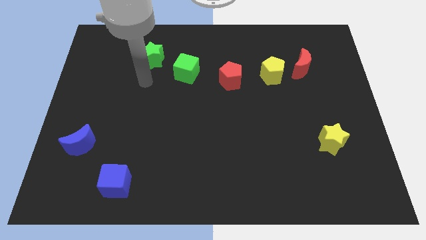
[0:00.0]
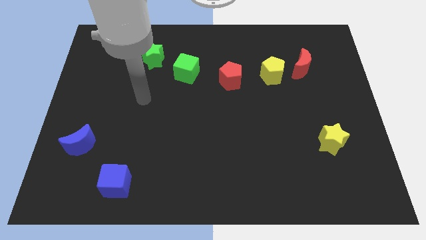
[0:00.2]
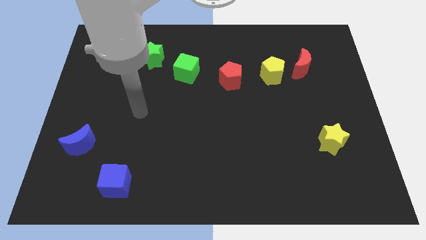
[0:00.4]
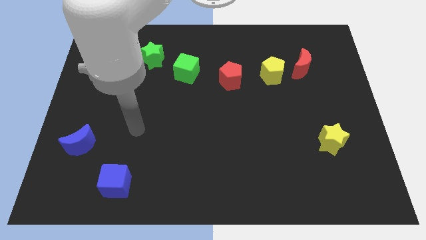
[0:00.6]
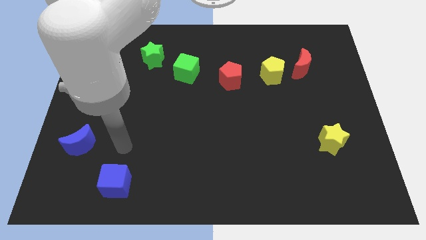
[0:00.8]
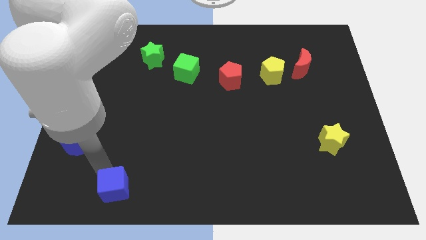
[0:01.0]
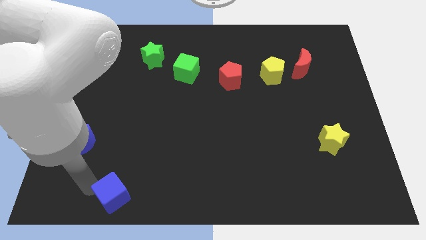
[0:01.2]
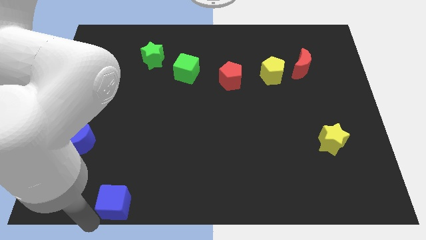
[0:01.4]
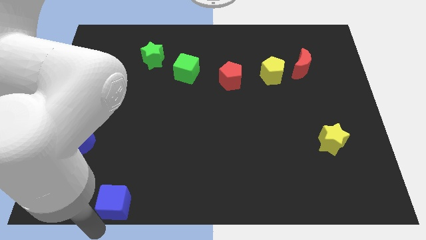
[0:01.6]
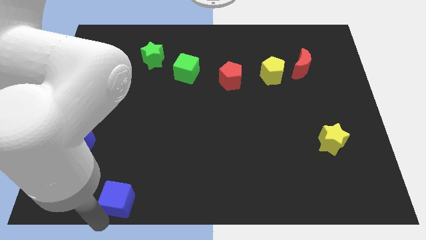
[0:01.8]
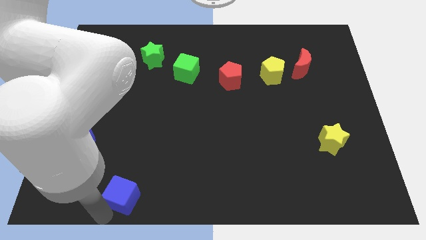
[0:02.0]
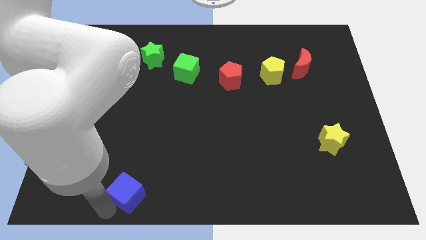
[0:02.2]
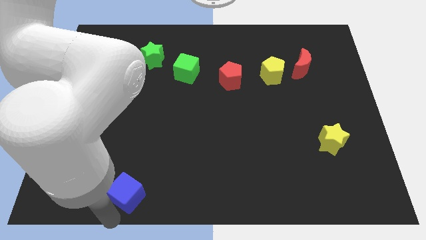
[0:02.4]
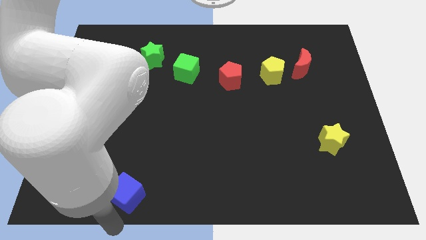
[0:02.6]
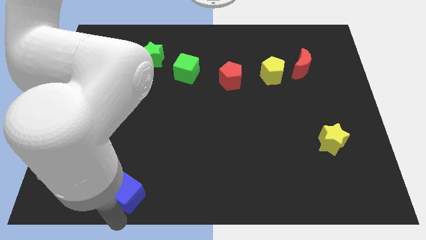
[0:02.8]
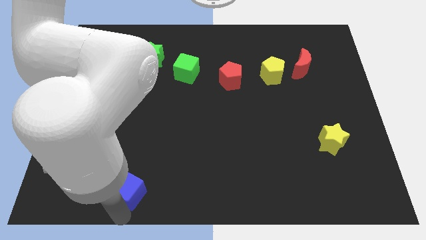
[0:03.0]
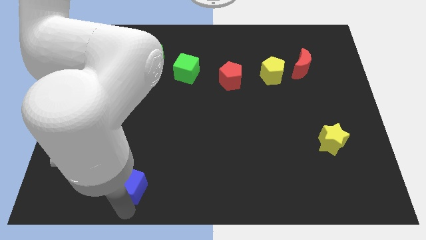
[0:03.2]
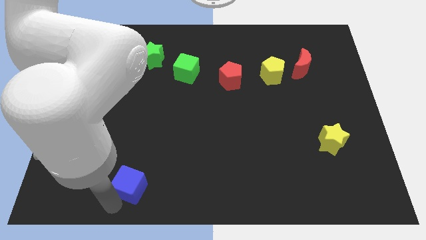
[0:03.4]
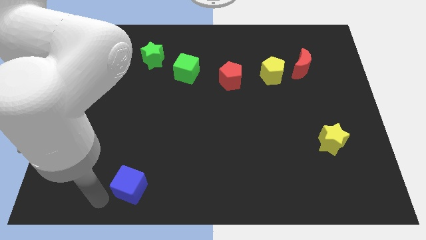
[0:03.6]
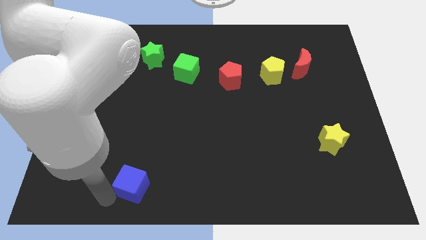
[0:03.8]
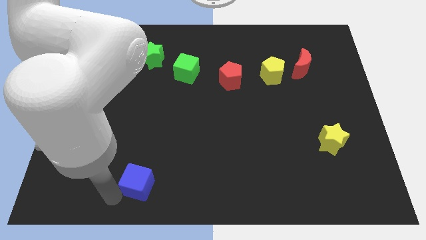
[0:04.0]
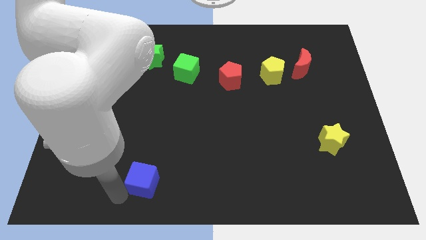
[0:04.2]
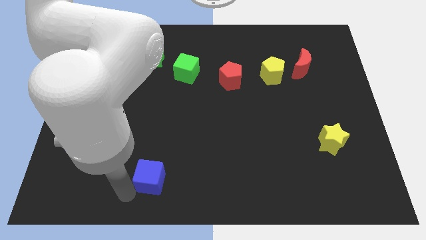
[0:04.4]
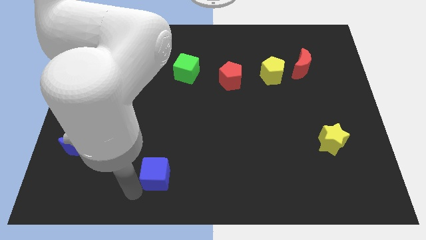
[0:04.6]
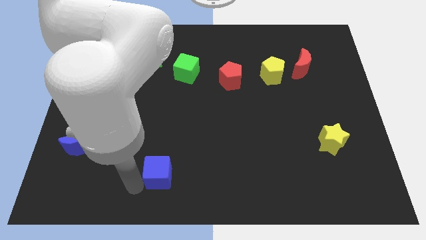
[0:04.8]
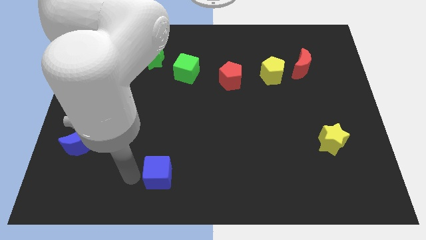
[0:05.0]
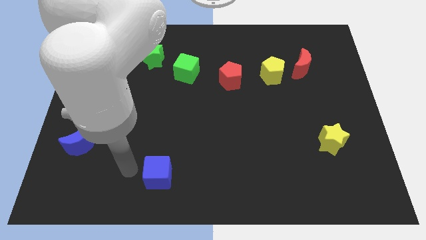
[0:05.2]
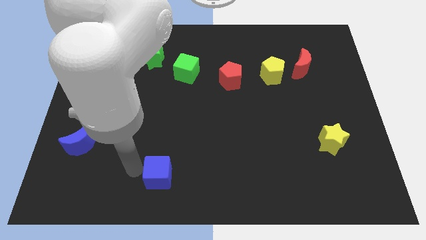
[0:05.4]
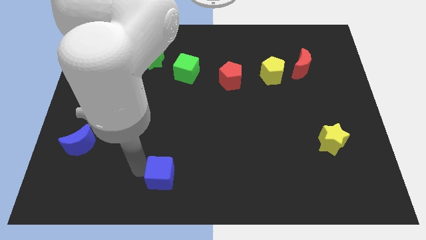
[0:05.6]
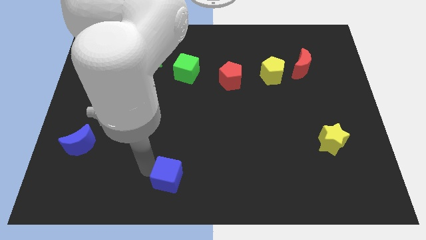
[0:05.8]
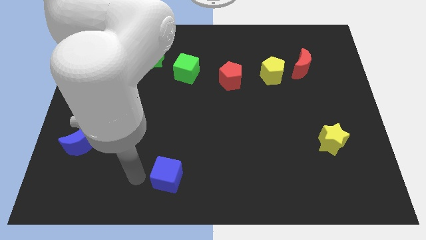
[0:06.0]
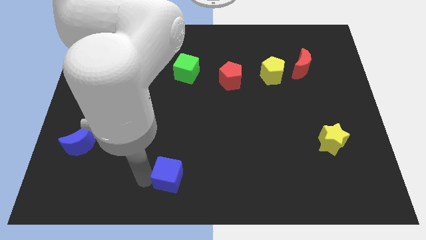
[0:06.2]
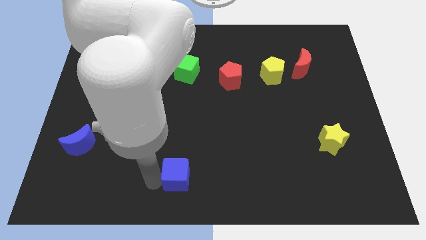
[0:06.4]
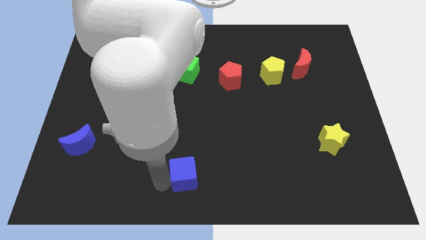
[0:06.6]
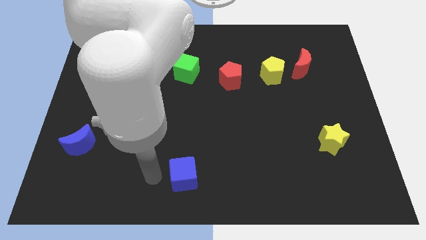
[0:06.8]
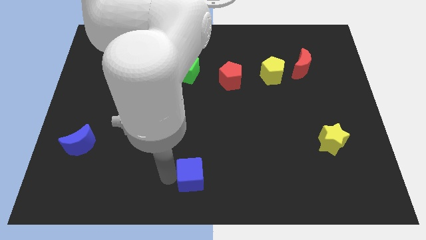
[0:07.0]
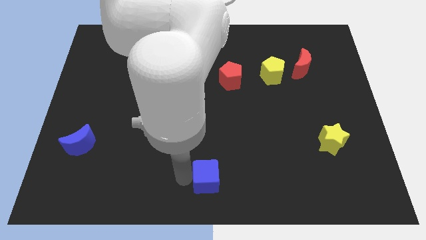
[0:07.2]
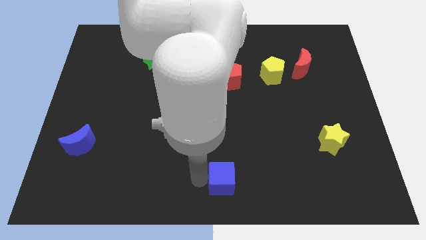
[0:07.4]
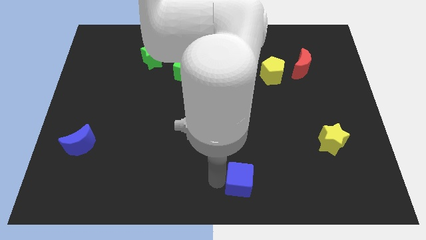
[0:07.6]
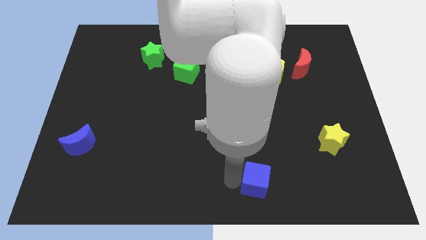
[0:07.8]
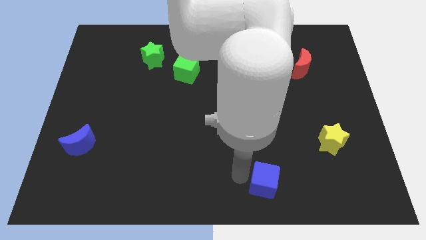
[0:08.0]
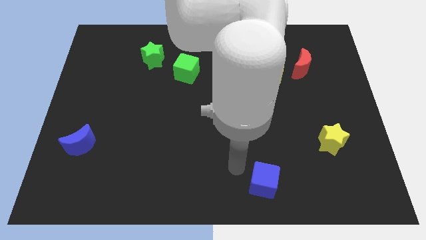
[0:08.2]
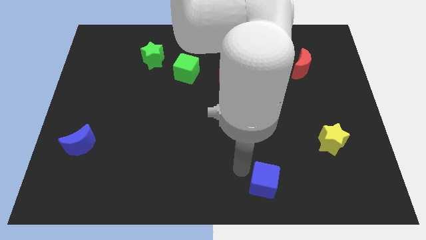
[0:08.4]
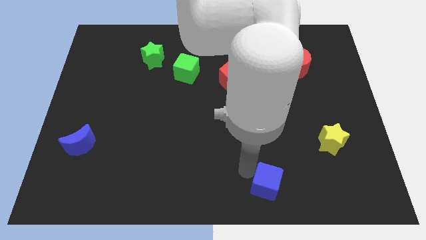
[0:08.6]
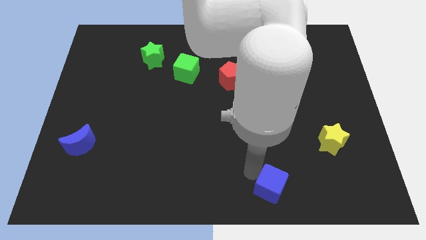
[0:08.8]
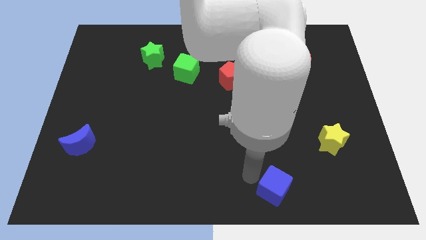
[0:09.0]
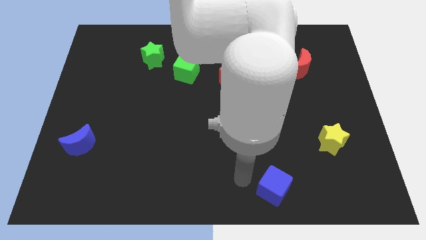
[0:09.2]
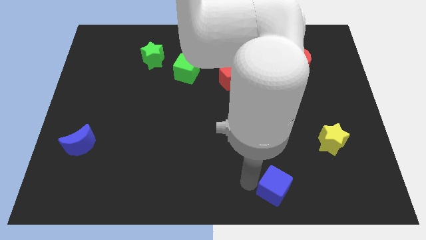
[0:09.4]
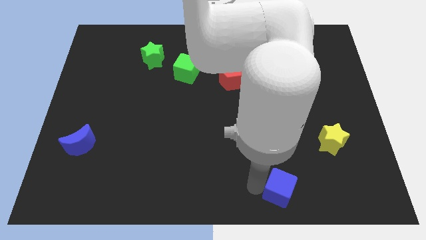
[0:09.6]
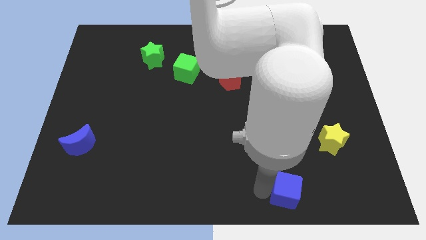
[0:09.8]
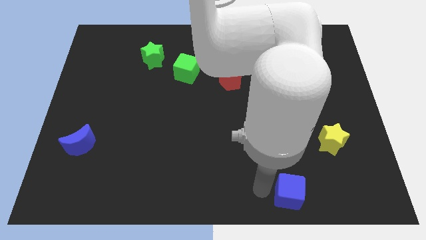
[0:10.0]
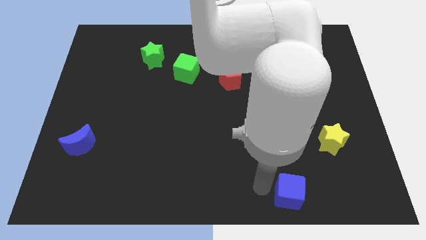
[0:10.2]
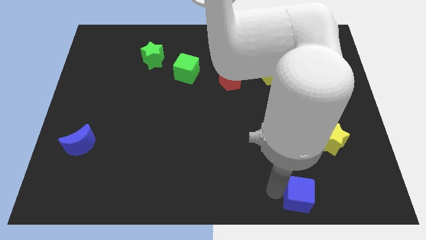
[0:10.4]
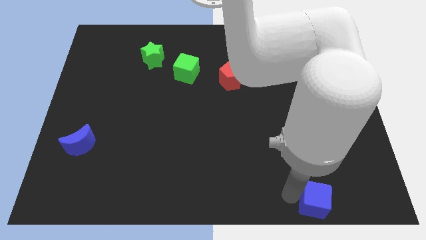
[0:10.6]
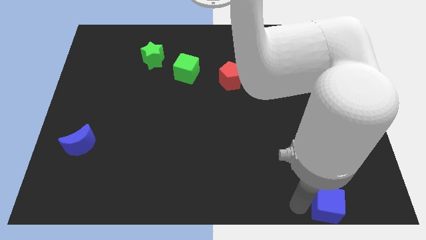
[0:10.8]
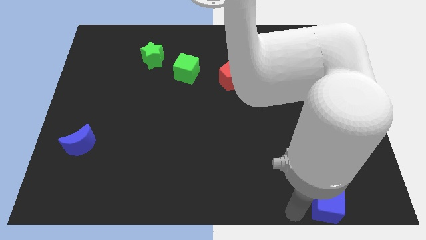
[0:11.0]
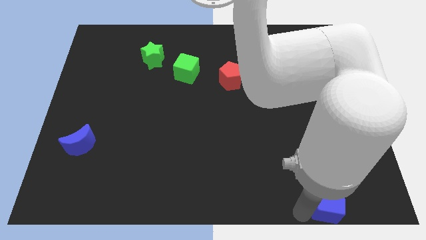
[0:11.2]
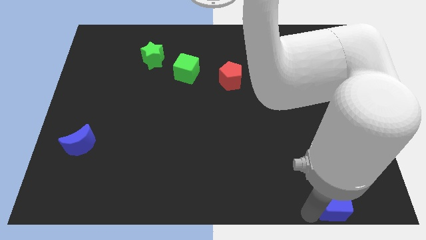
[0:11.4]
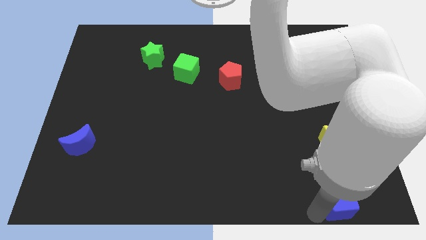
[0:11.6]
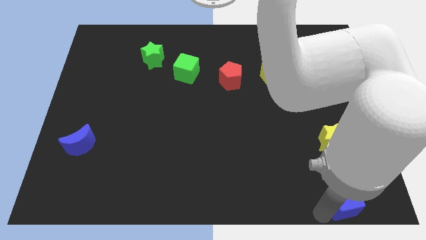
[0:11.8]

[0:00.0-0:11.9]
push the blue cube to the bottom right of the board

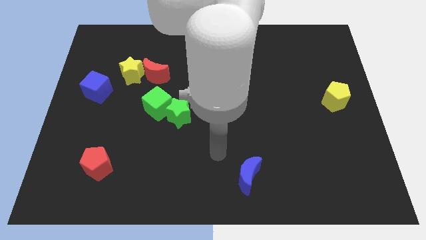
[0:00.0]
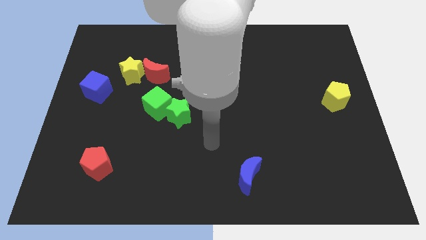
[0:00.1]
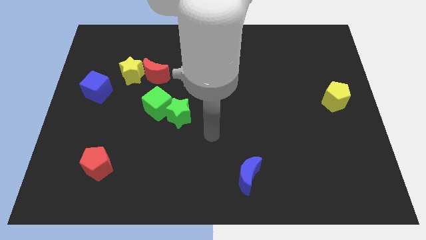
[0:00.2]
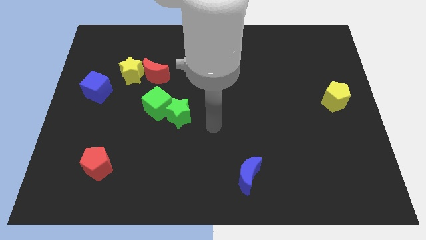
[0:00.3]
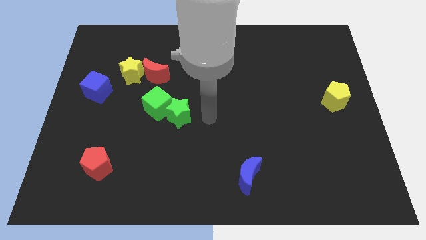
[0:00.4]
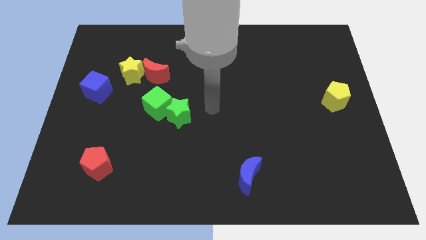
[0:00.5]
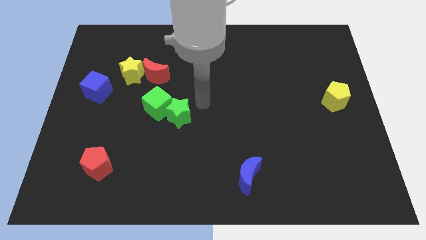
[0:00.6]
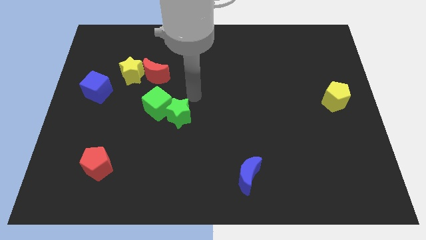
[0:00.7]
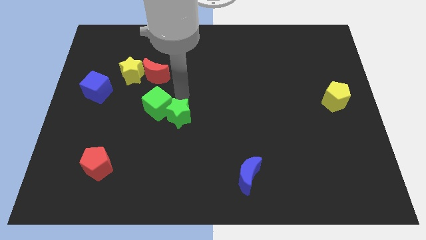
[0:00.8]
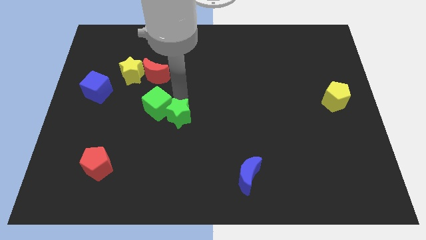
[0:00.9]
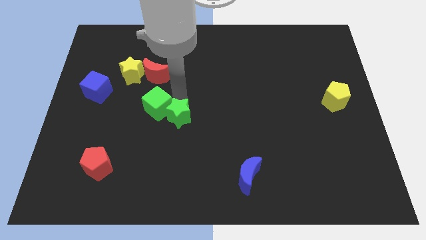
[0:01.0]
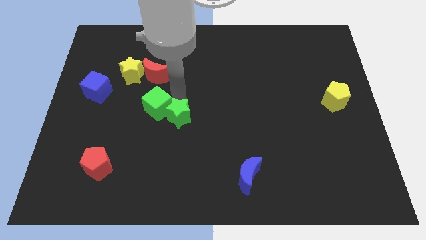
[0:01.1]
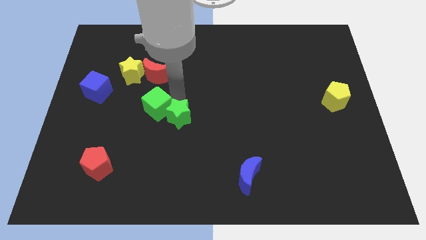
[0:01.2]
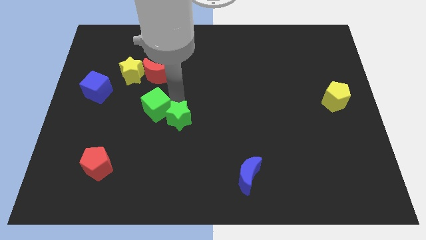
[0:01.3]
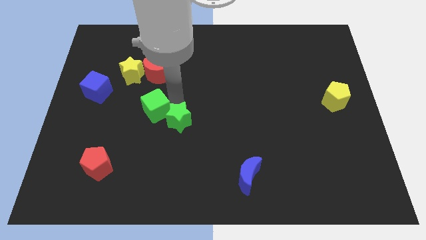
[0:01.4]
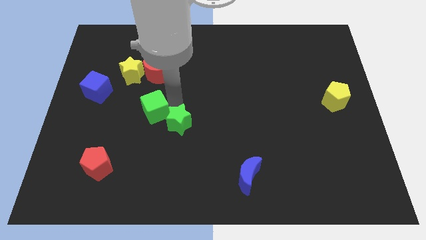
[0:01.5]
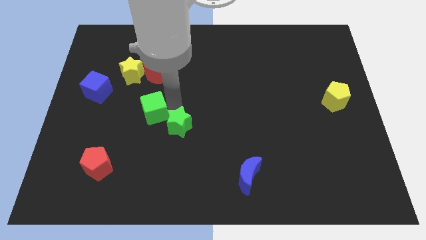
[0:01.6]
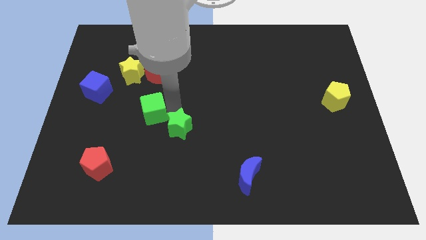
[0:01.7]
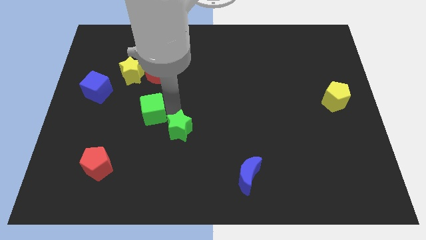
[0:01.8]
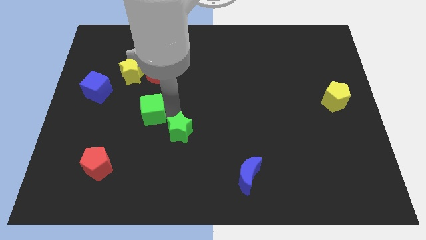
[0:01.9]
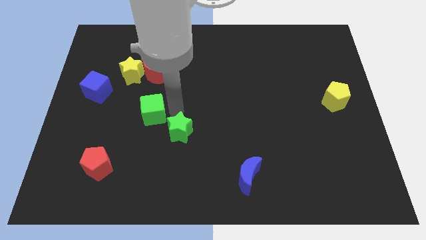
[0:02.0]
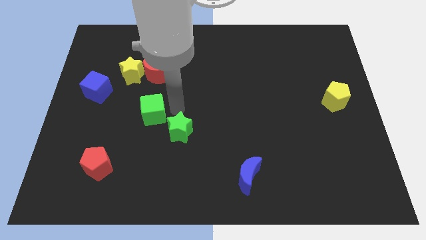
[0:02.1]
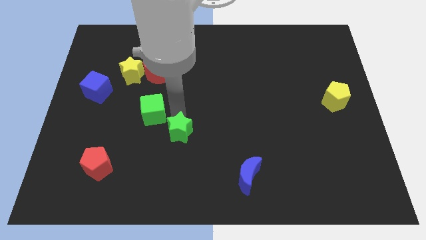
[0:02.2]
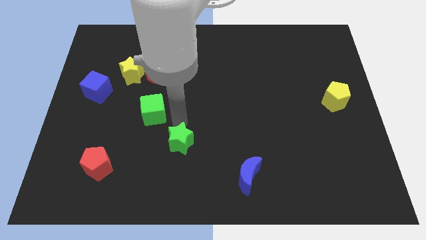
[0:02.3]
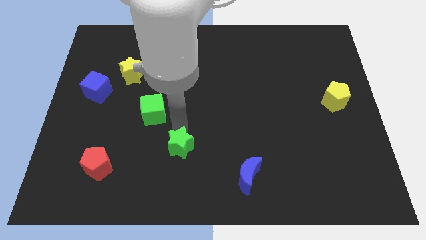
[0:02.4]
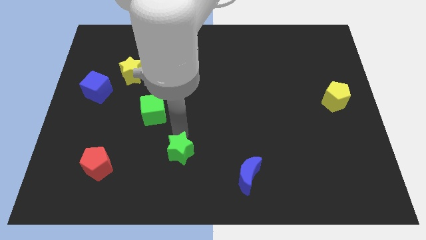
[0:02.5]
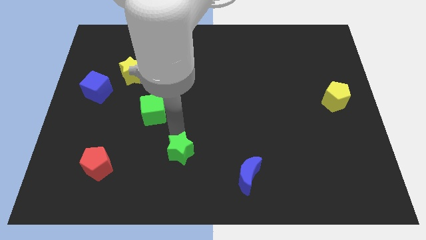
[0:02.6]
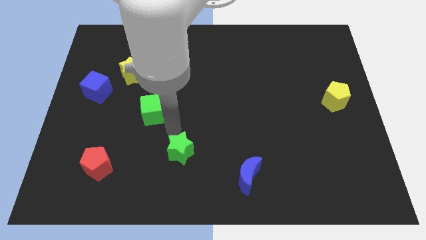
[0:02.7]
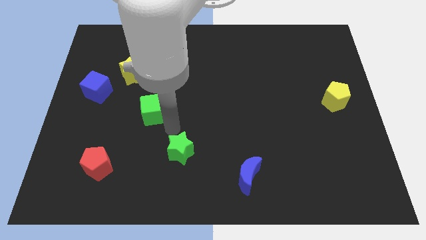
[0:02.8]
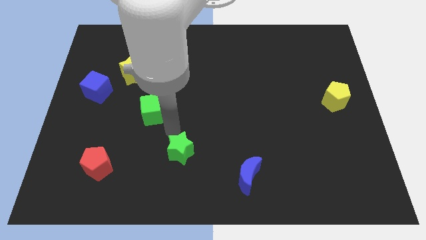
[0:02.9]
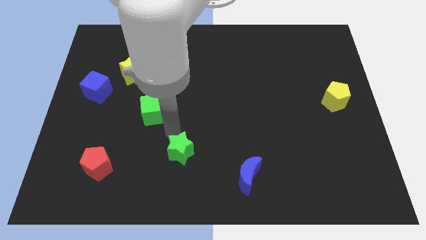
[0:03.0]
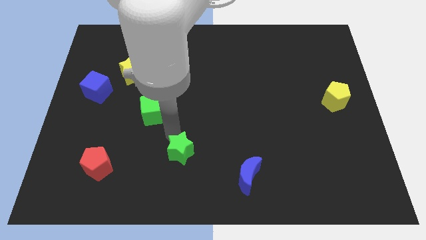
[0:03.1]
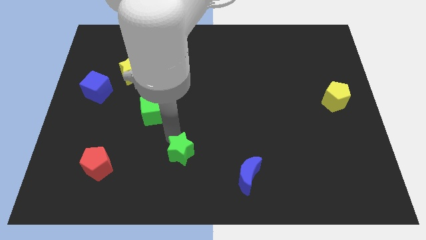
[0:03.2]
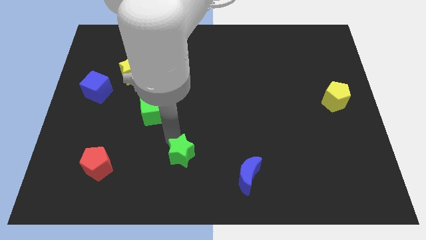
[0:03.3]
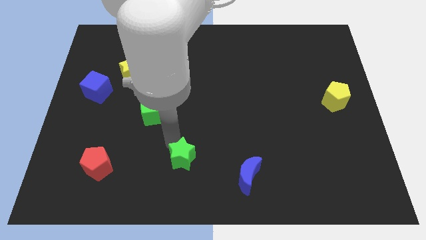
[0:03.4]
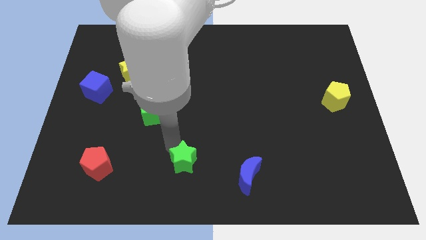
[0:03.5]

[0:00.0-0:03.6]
push the green star to the bottom side
